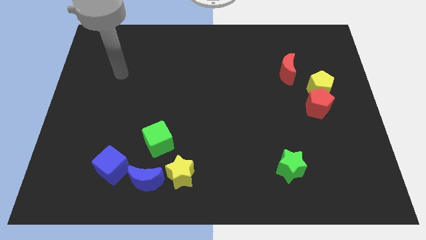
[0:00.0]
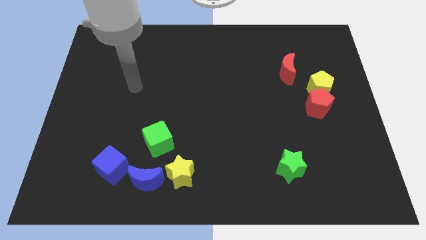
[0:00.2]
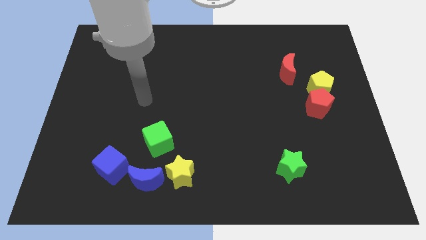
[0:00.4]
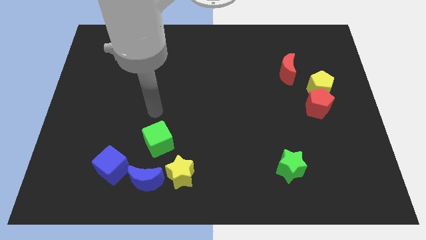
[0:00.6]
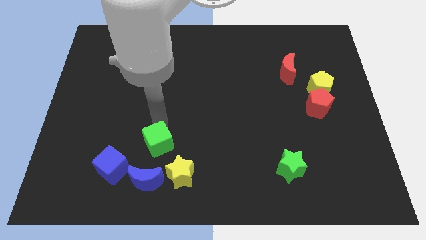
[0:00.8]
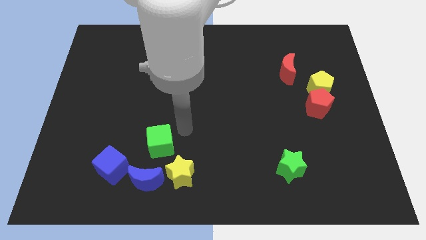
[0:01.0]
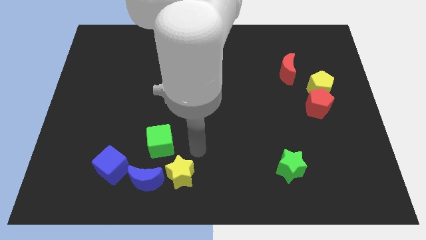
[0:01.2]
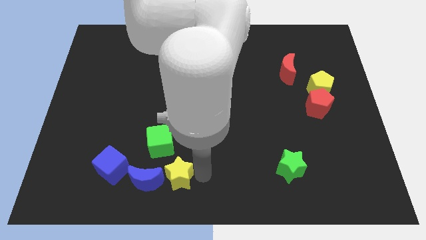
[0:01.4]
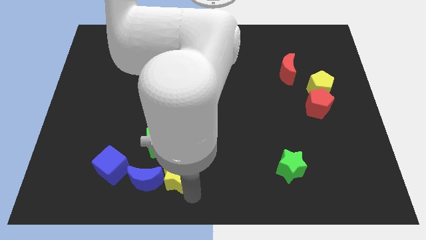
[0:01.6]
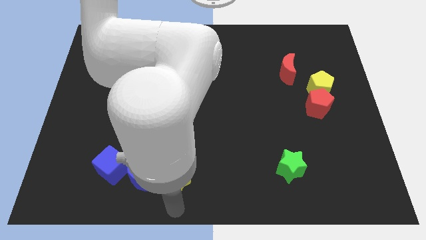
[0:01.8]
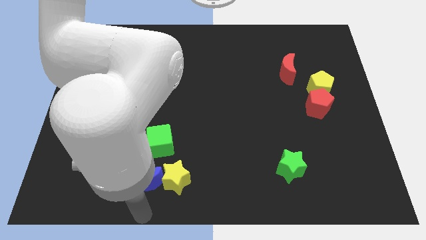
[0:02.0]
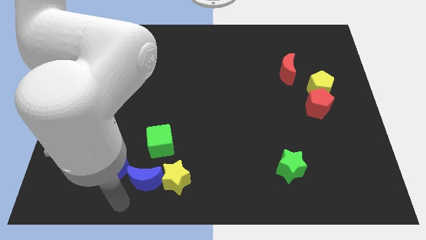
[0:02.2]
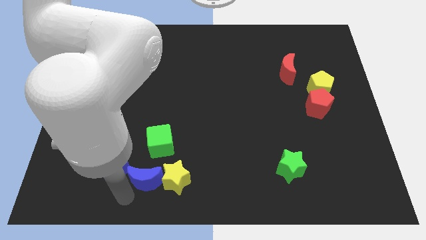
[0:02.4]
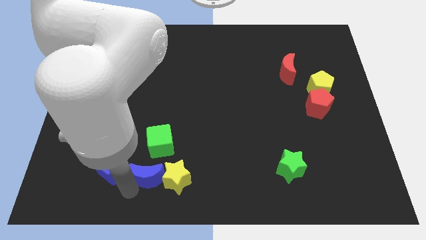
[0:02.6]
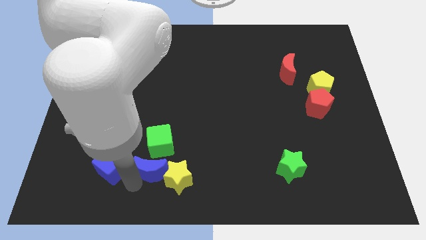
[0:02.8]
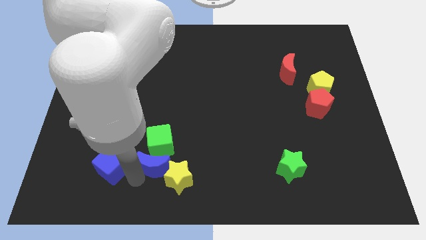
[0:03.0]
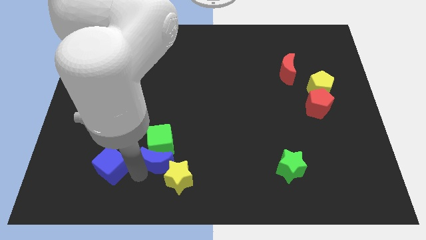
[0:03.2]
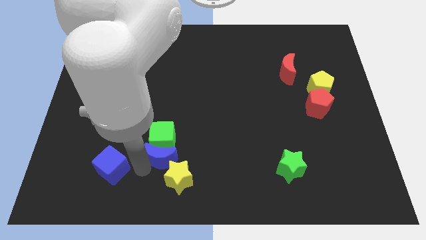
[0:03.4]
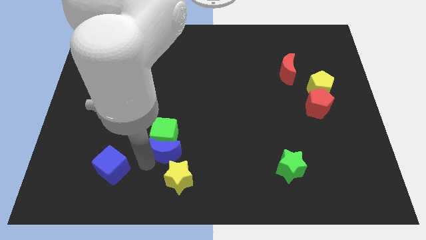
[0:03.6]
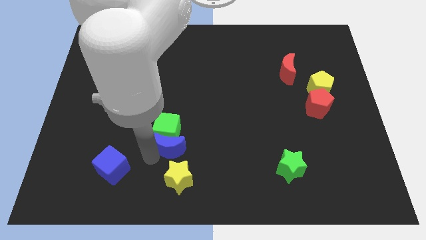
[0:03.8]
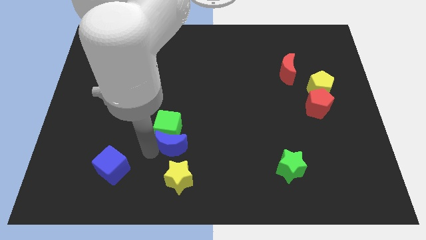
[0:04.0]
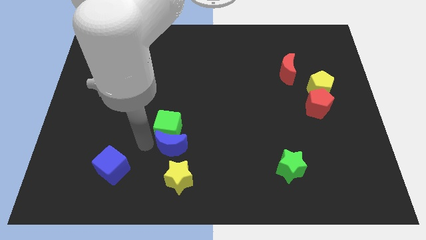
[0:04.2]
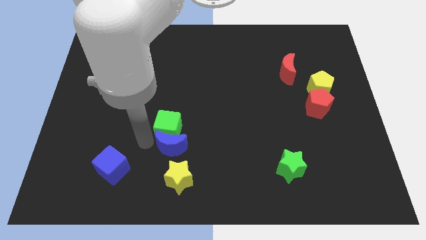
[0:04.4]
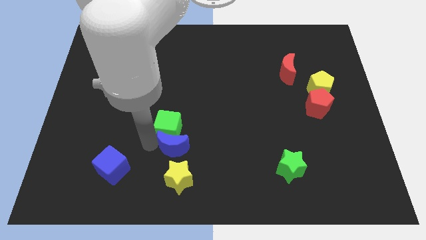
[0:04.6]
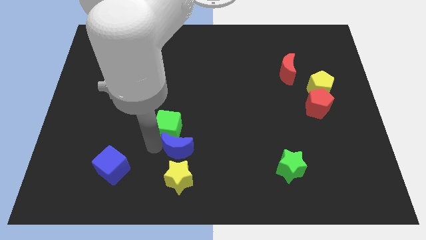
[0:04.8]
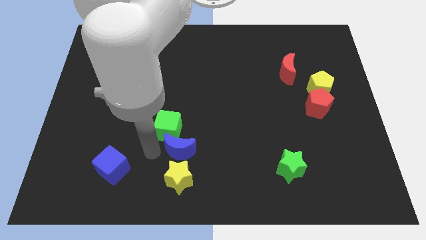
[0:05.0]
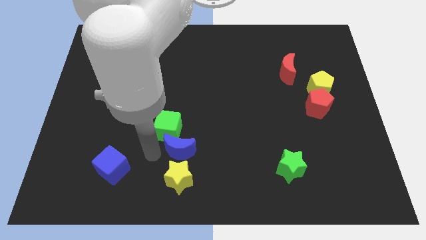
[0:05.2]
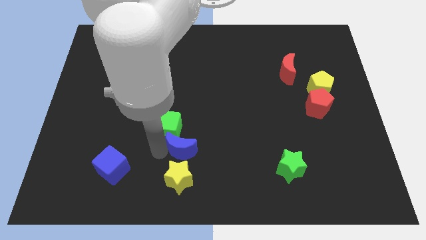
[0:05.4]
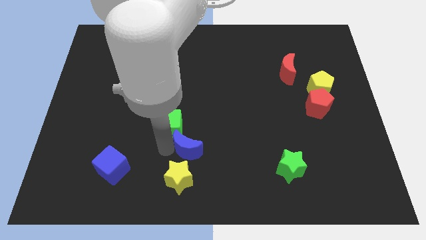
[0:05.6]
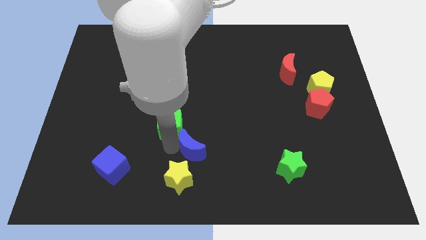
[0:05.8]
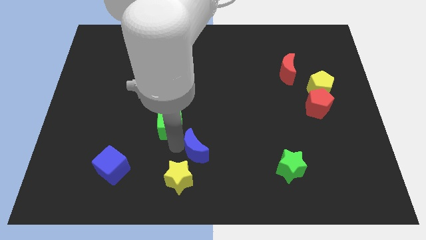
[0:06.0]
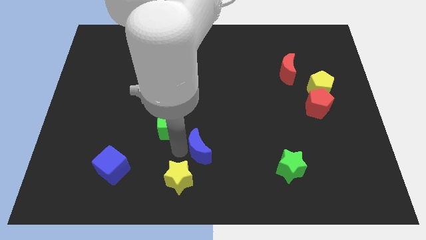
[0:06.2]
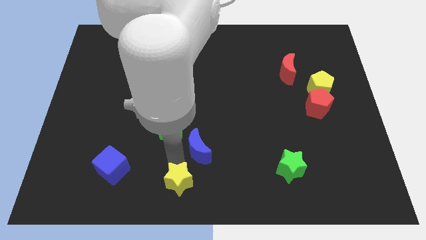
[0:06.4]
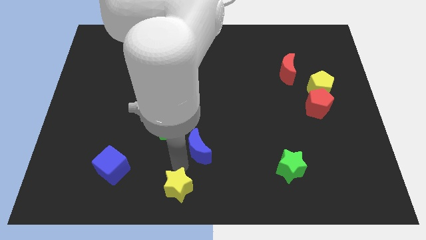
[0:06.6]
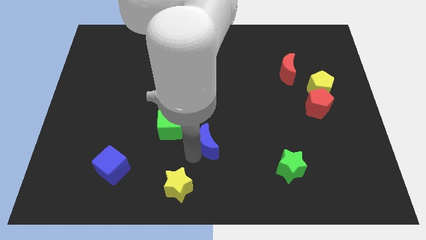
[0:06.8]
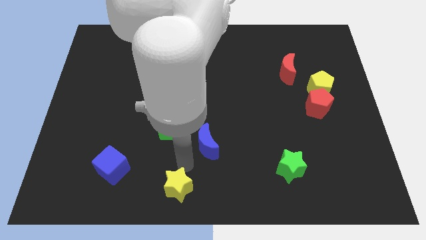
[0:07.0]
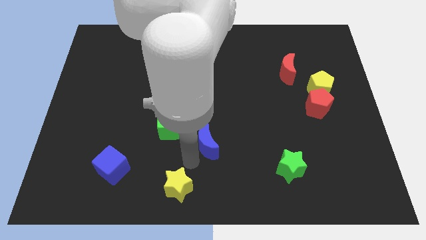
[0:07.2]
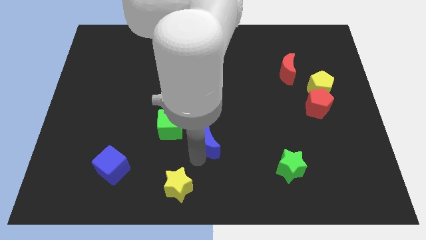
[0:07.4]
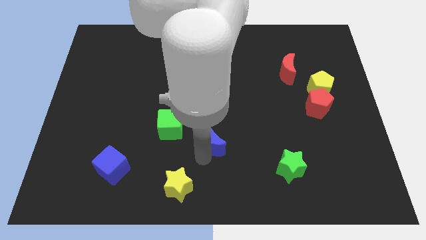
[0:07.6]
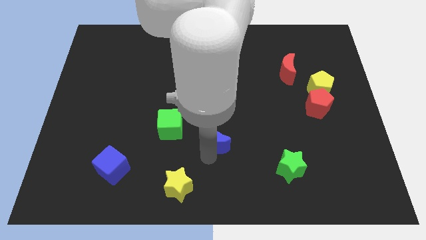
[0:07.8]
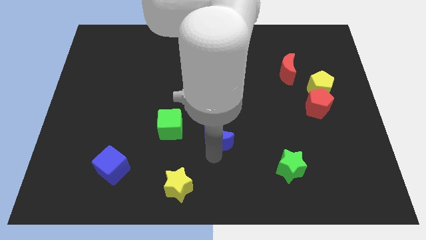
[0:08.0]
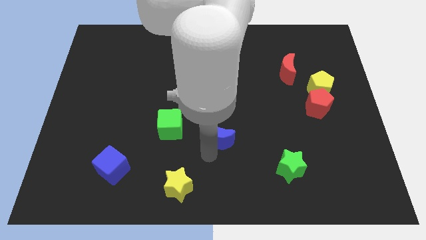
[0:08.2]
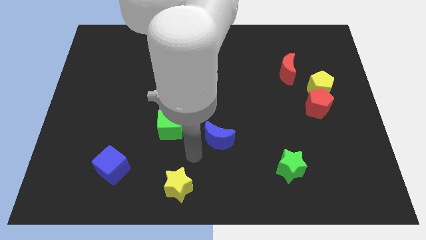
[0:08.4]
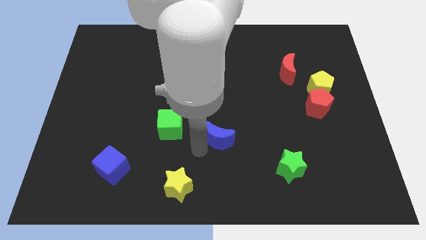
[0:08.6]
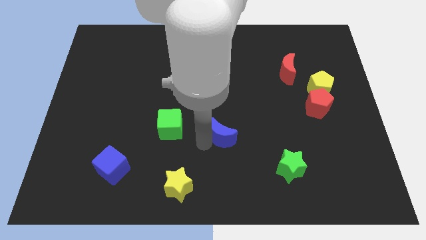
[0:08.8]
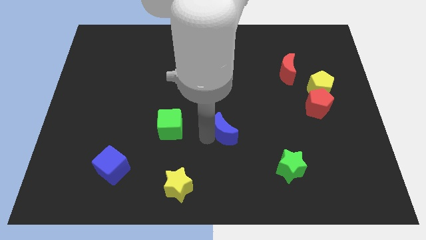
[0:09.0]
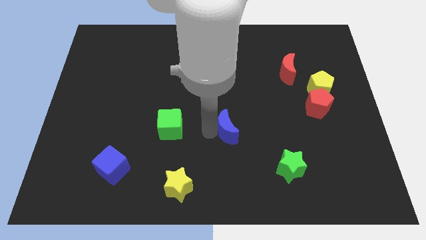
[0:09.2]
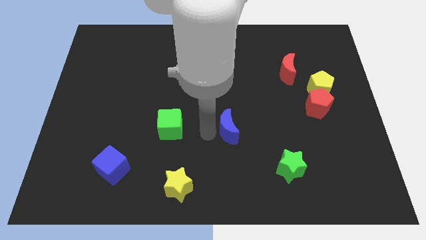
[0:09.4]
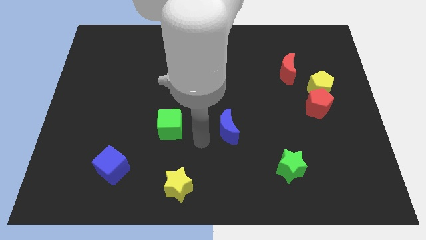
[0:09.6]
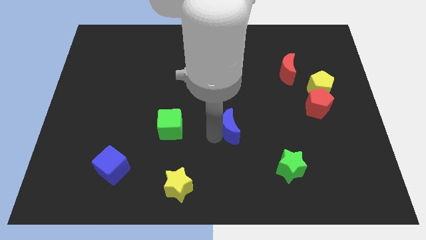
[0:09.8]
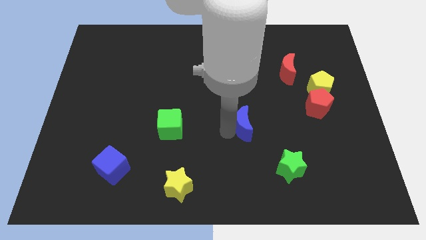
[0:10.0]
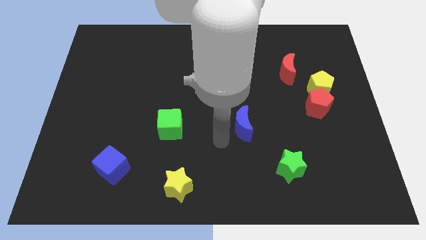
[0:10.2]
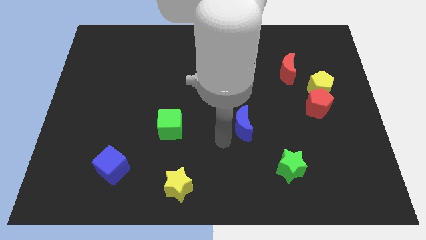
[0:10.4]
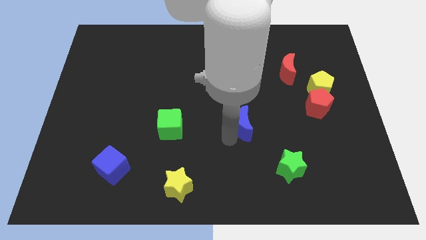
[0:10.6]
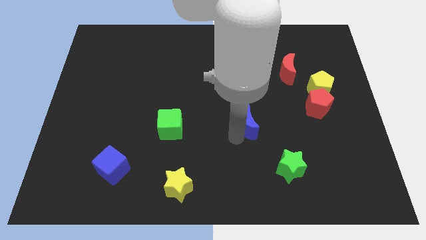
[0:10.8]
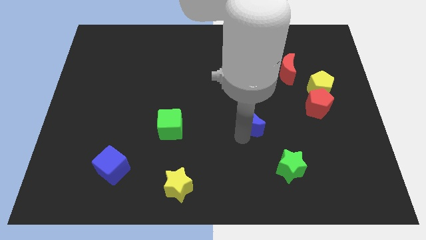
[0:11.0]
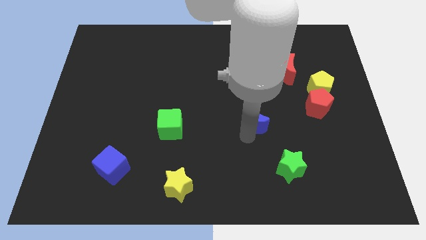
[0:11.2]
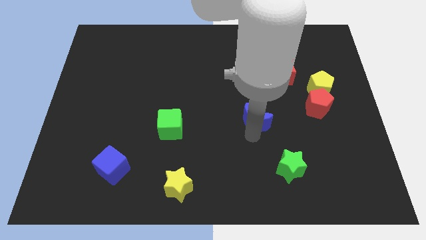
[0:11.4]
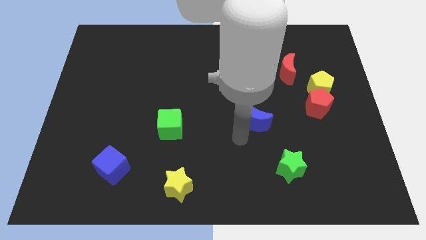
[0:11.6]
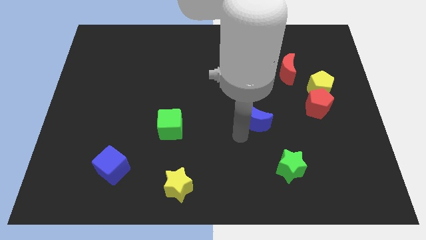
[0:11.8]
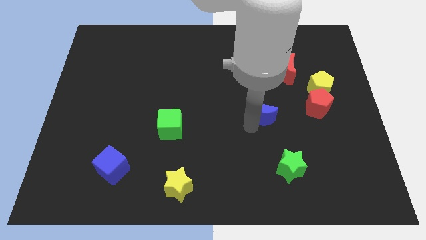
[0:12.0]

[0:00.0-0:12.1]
put the blue moon to the left of the red pentagon

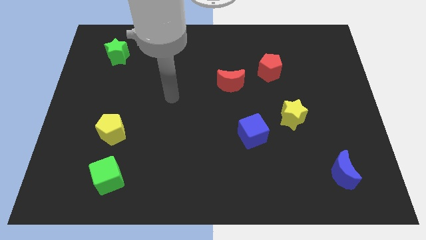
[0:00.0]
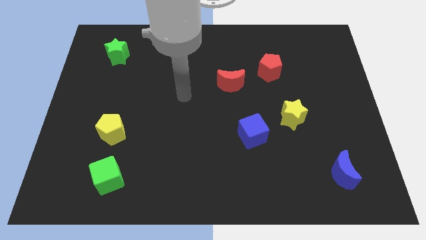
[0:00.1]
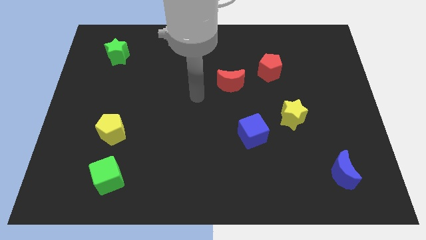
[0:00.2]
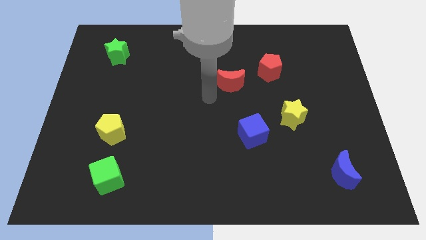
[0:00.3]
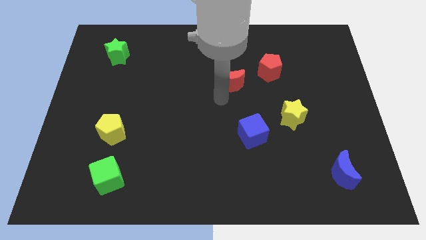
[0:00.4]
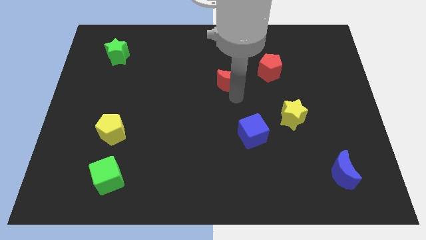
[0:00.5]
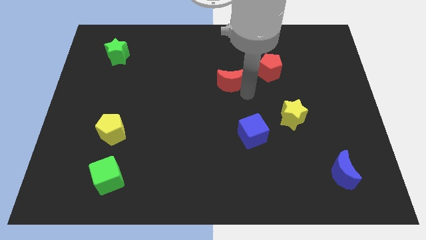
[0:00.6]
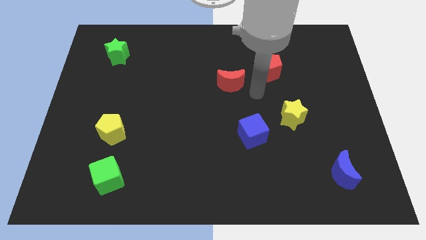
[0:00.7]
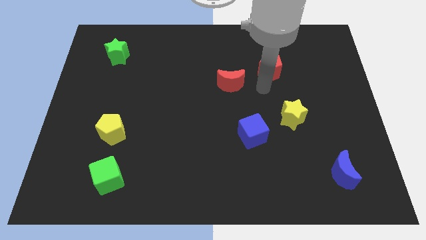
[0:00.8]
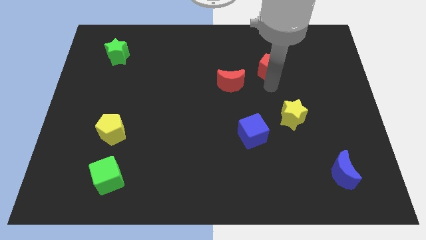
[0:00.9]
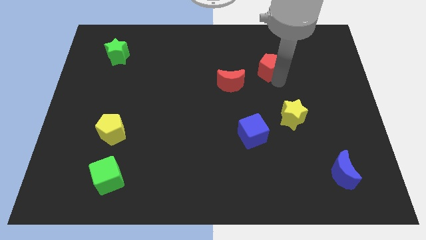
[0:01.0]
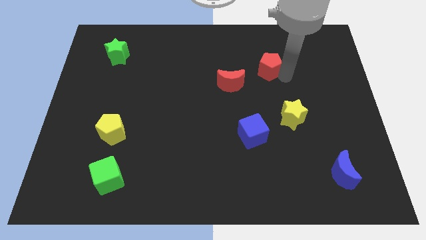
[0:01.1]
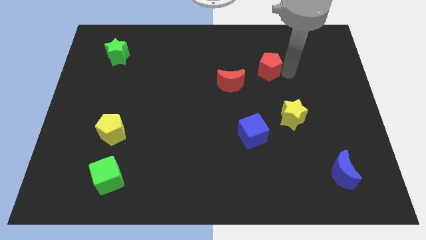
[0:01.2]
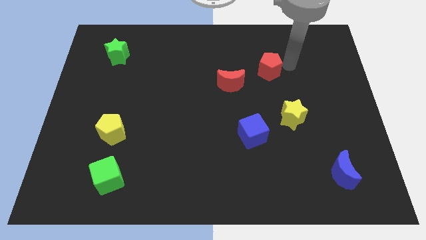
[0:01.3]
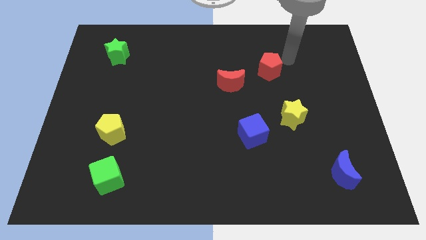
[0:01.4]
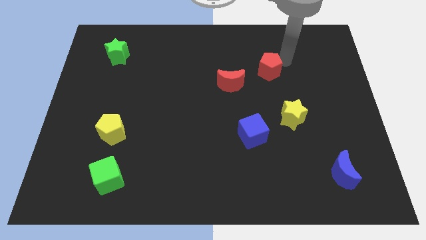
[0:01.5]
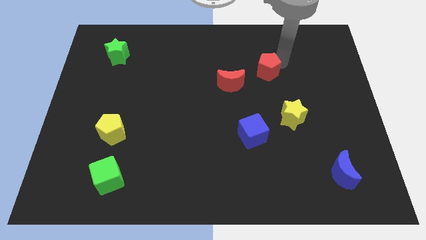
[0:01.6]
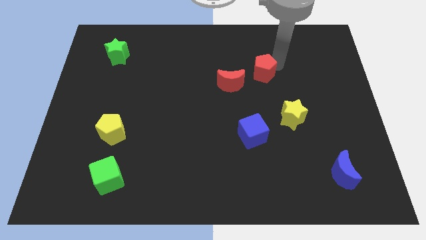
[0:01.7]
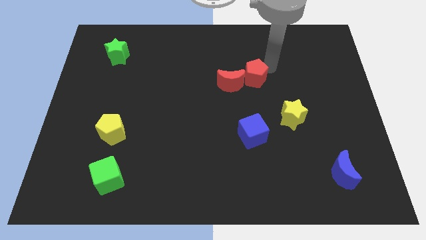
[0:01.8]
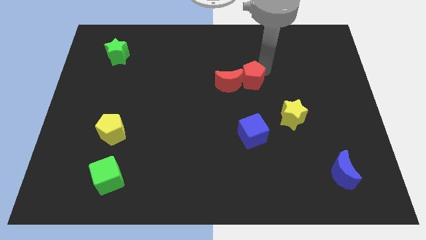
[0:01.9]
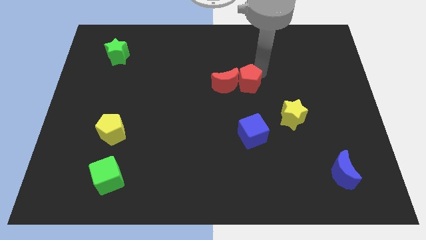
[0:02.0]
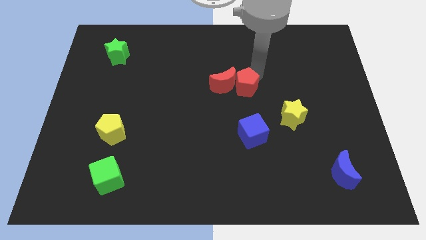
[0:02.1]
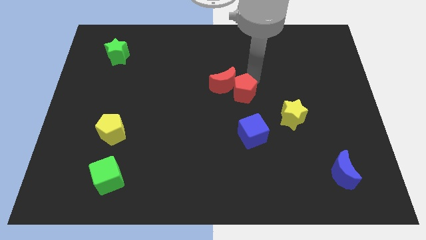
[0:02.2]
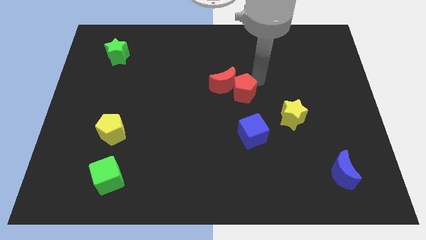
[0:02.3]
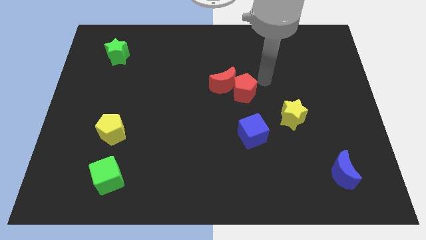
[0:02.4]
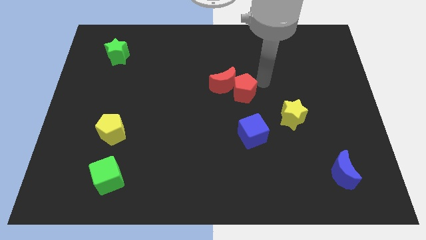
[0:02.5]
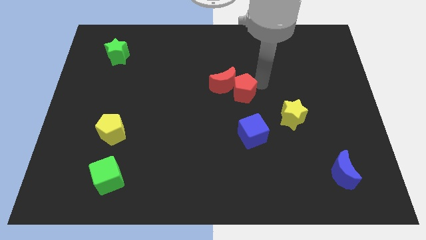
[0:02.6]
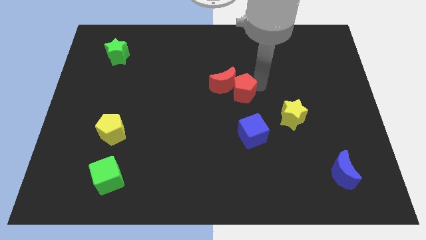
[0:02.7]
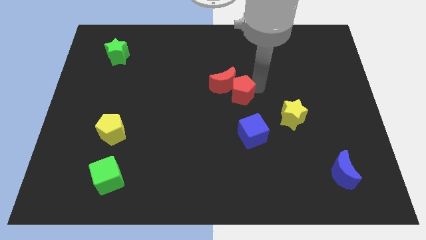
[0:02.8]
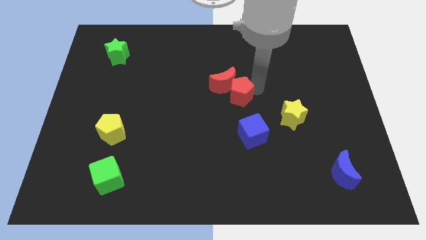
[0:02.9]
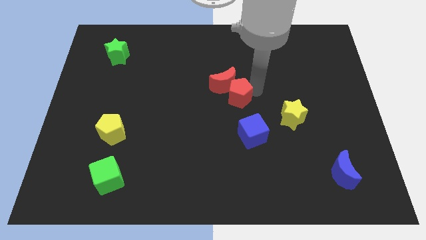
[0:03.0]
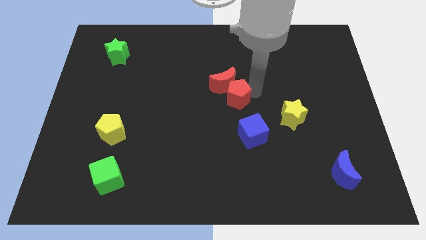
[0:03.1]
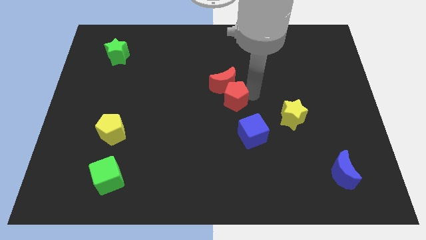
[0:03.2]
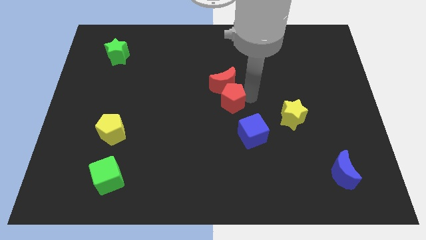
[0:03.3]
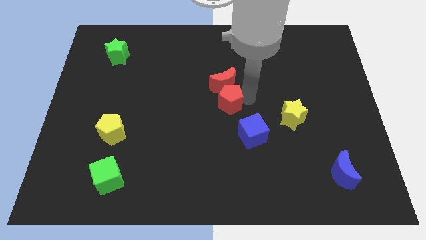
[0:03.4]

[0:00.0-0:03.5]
put the red pentagon diagonally down and to the left of the red moon
